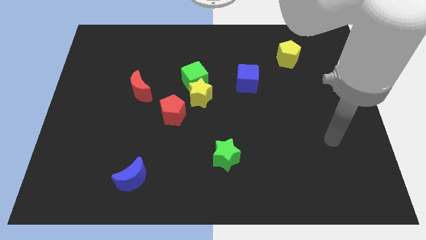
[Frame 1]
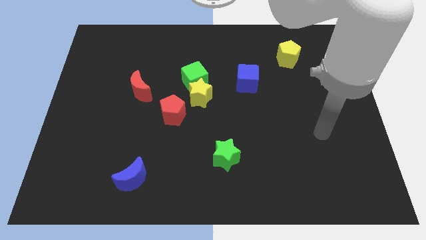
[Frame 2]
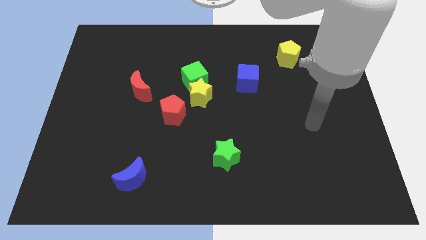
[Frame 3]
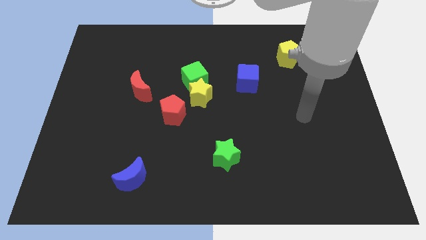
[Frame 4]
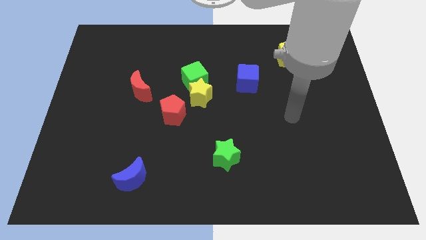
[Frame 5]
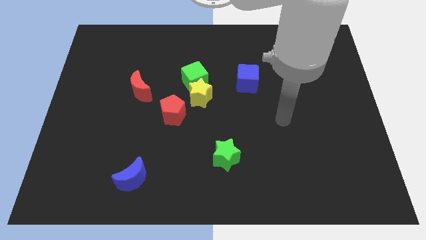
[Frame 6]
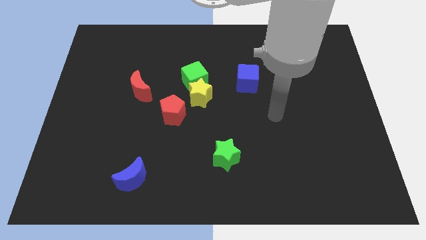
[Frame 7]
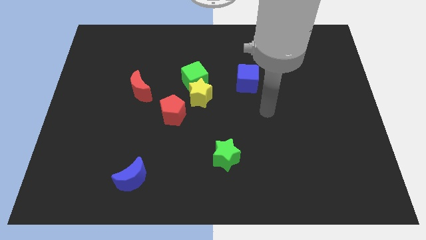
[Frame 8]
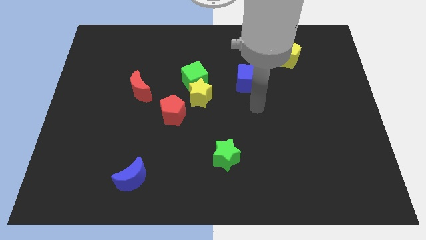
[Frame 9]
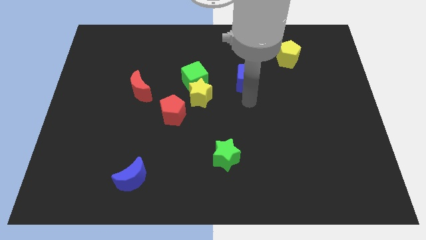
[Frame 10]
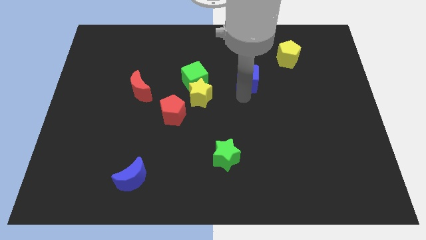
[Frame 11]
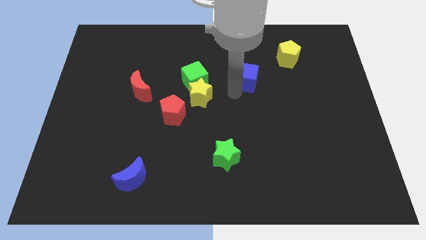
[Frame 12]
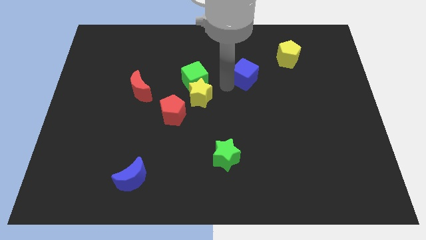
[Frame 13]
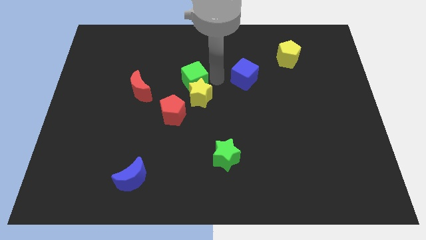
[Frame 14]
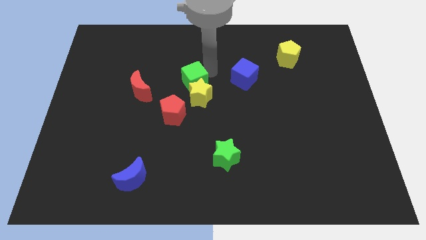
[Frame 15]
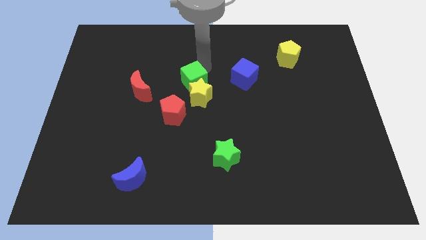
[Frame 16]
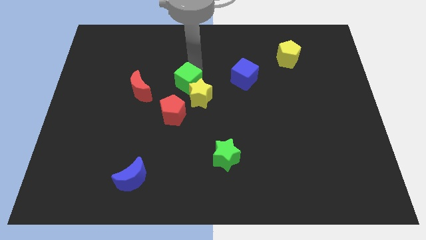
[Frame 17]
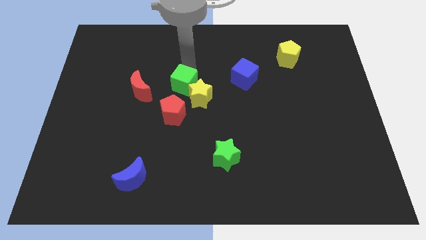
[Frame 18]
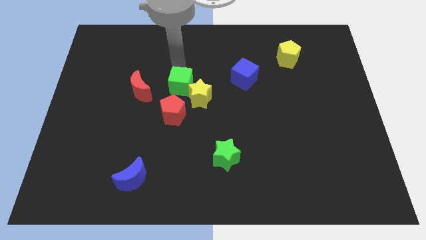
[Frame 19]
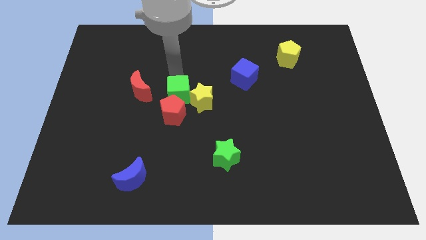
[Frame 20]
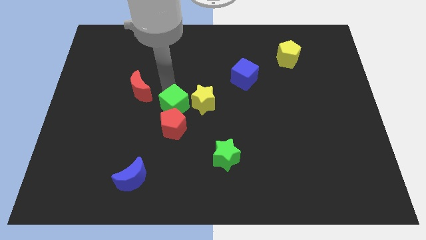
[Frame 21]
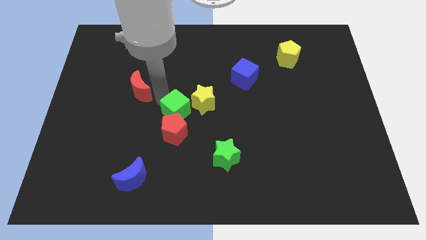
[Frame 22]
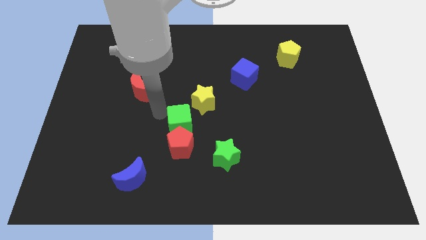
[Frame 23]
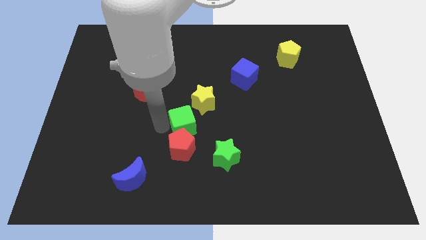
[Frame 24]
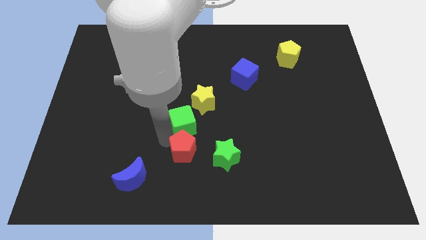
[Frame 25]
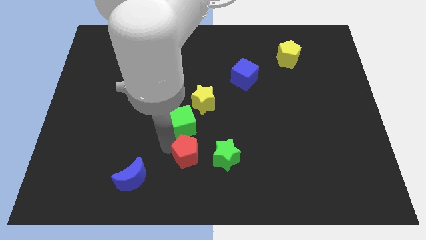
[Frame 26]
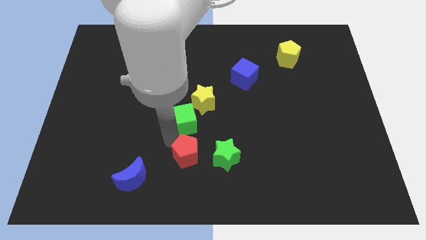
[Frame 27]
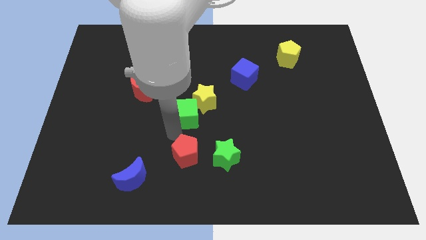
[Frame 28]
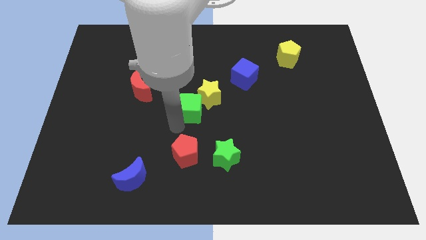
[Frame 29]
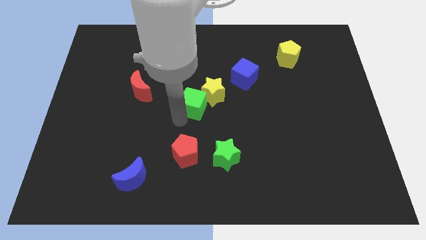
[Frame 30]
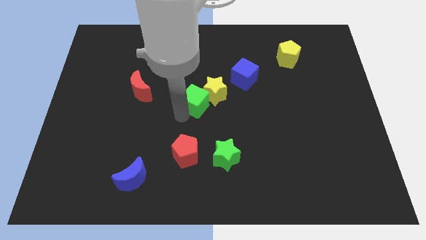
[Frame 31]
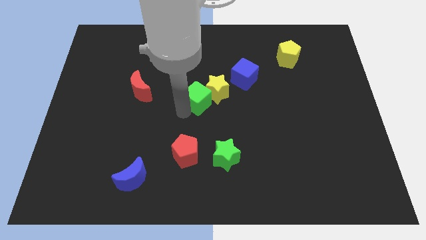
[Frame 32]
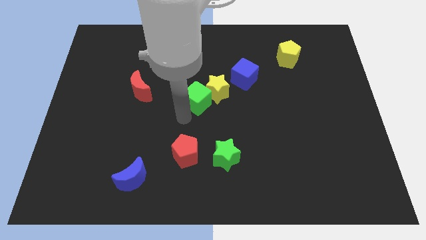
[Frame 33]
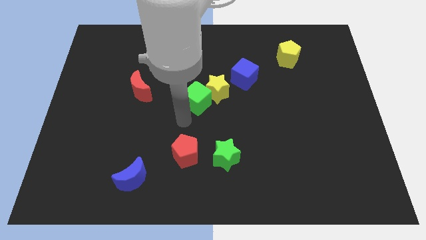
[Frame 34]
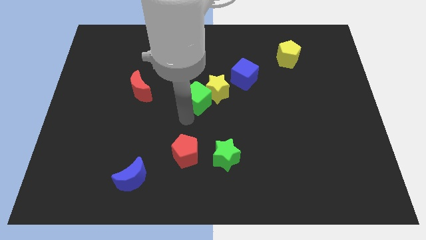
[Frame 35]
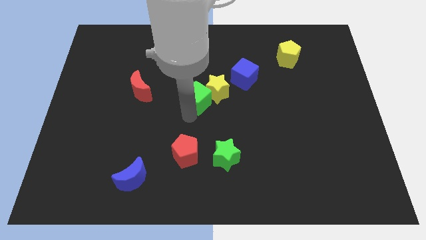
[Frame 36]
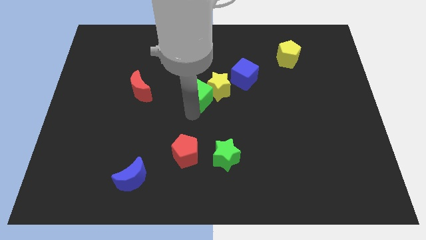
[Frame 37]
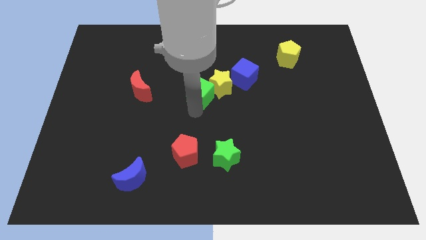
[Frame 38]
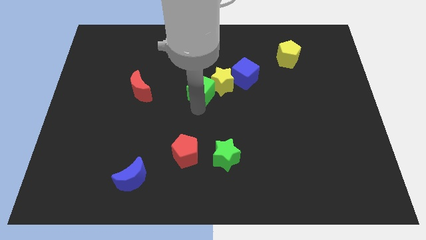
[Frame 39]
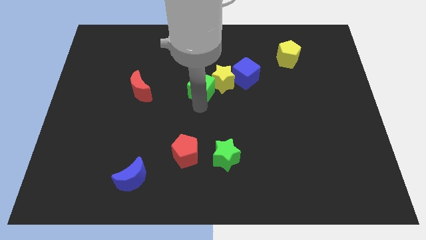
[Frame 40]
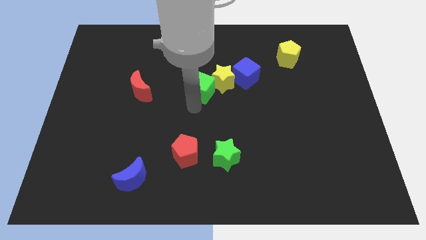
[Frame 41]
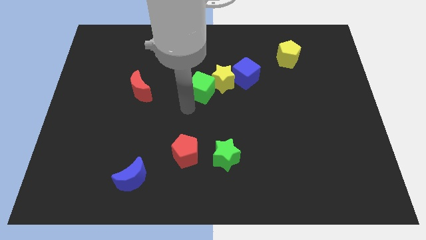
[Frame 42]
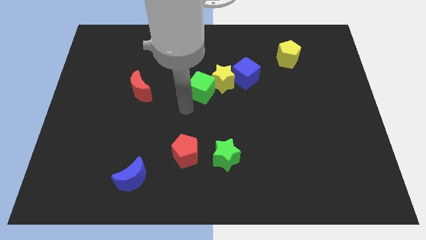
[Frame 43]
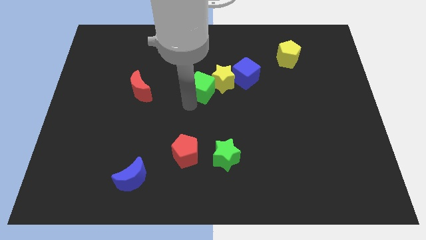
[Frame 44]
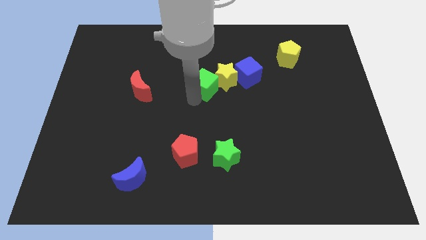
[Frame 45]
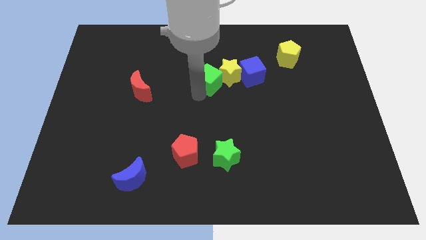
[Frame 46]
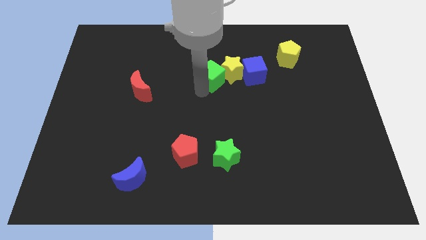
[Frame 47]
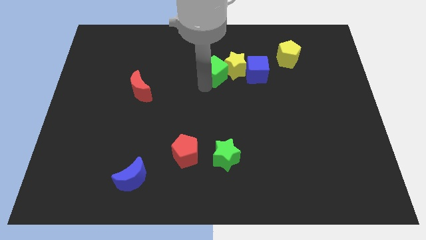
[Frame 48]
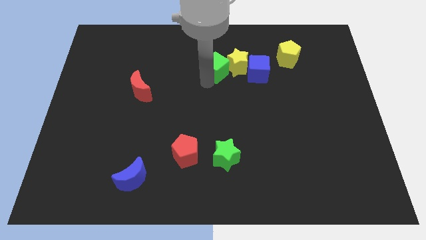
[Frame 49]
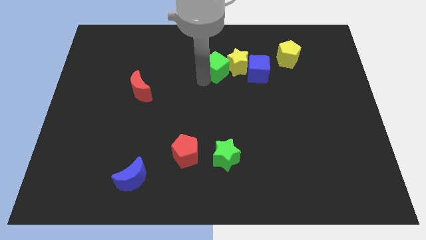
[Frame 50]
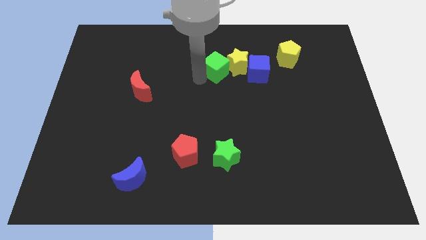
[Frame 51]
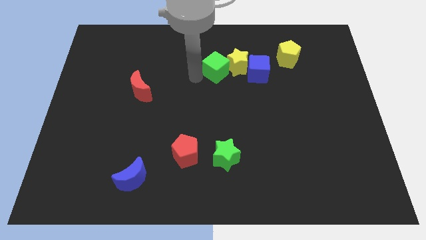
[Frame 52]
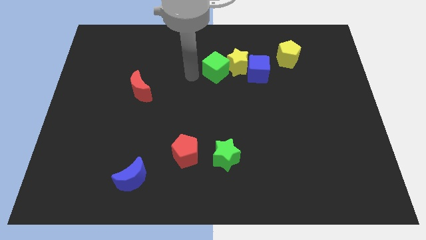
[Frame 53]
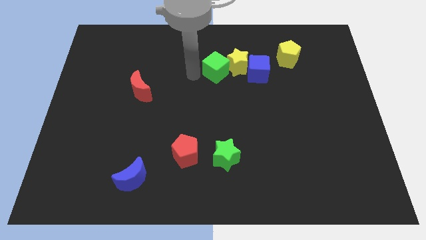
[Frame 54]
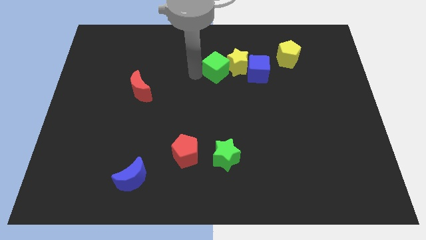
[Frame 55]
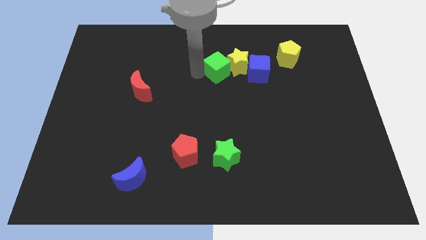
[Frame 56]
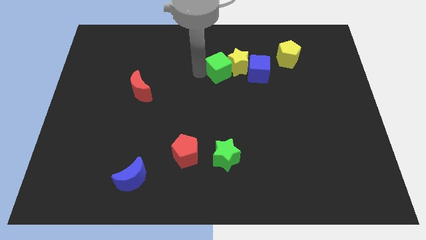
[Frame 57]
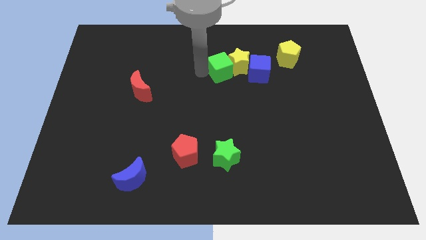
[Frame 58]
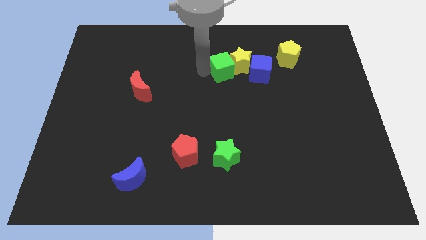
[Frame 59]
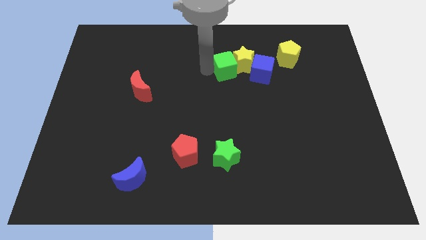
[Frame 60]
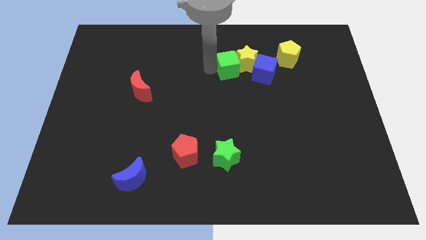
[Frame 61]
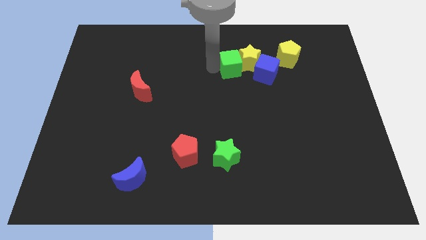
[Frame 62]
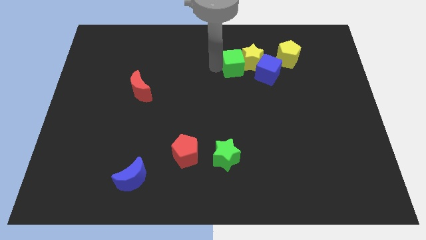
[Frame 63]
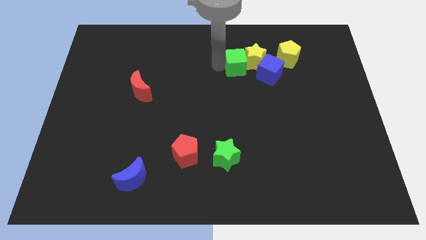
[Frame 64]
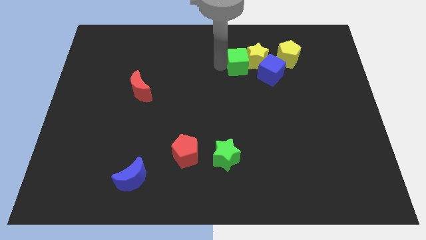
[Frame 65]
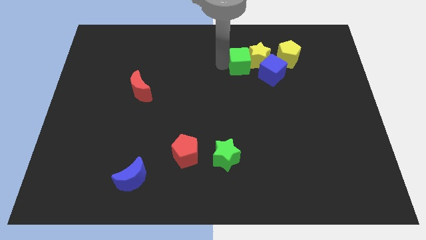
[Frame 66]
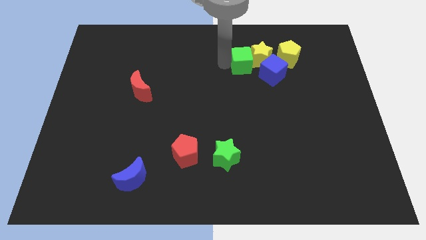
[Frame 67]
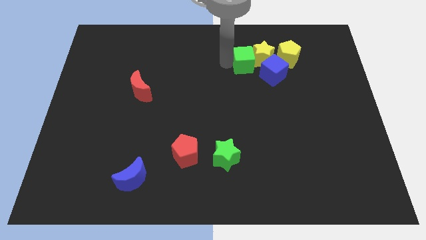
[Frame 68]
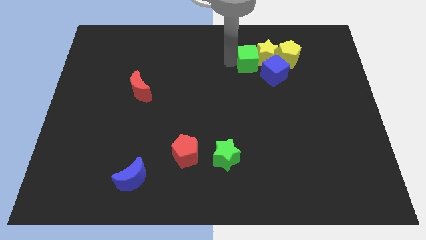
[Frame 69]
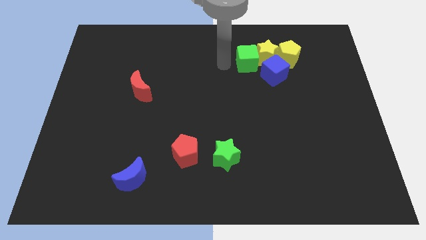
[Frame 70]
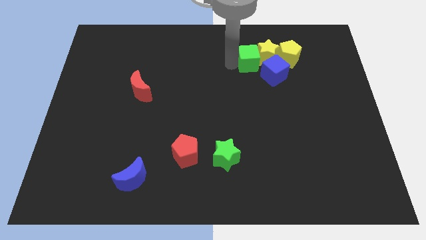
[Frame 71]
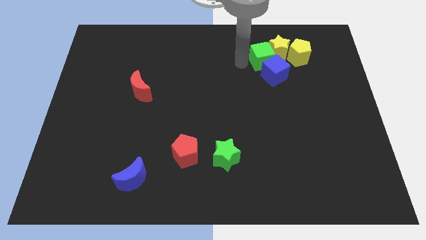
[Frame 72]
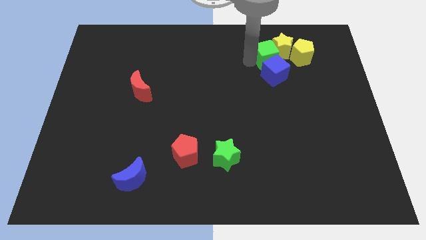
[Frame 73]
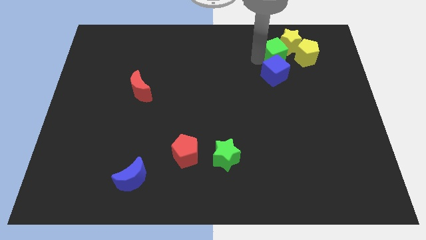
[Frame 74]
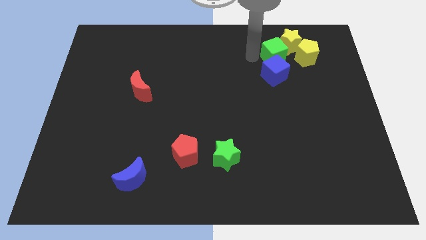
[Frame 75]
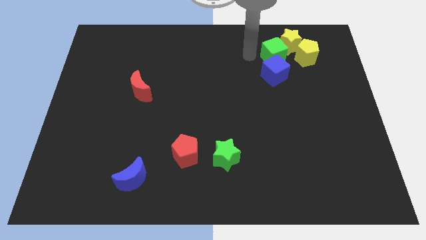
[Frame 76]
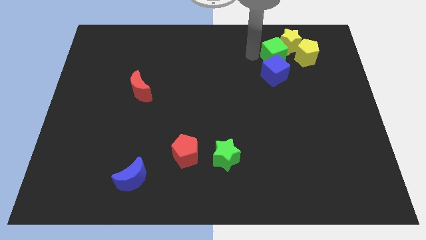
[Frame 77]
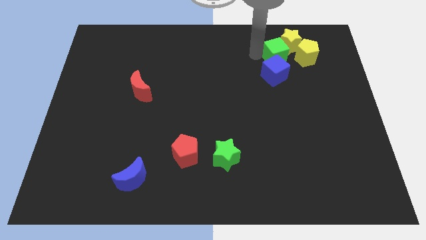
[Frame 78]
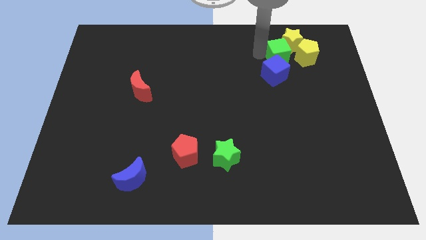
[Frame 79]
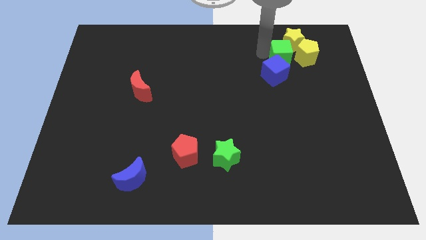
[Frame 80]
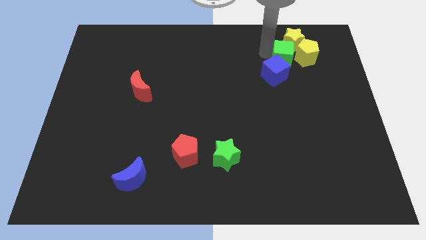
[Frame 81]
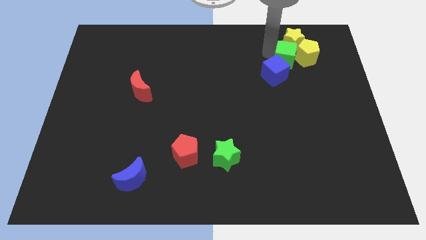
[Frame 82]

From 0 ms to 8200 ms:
slide the green cube next to the yellow pentagon
